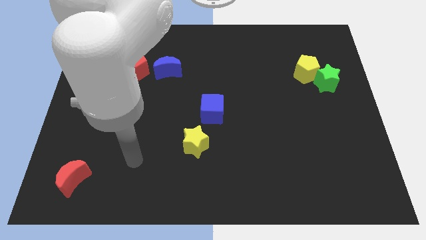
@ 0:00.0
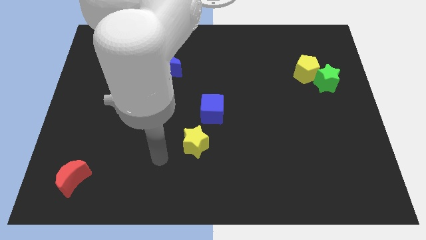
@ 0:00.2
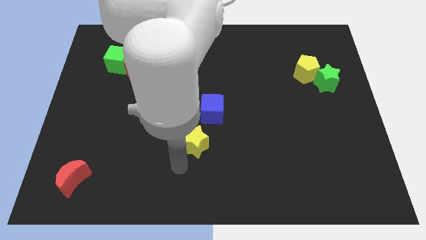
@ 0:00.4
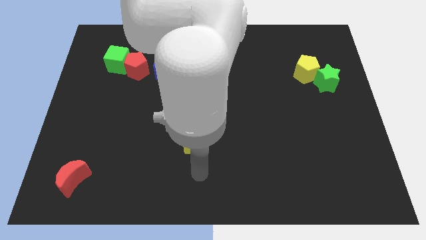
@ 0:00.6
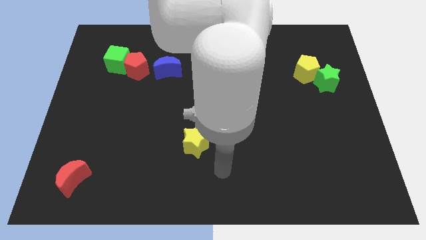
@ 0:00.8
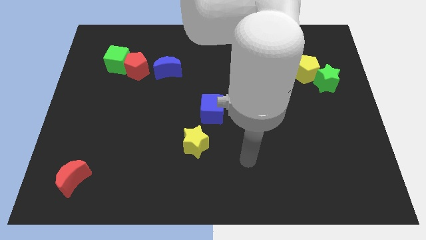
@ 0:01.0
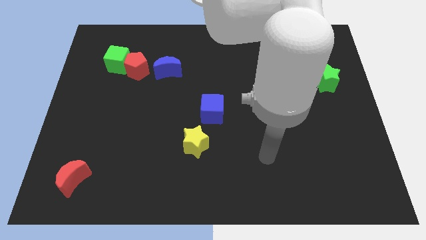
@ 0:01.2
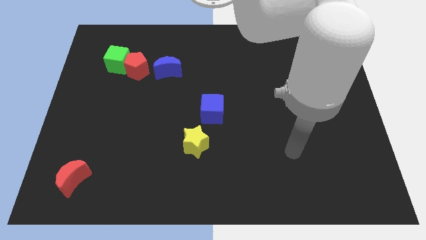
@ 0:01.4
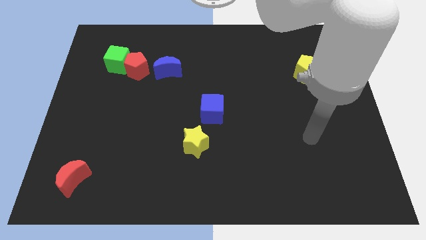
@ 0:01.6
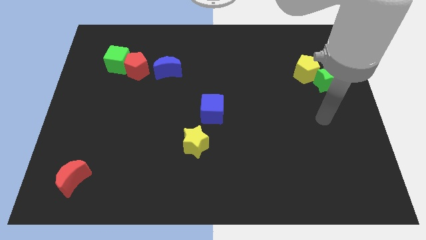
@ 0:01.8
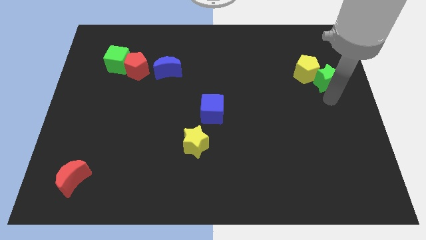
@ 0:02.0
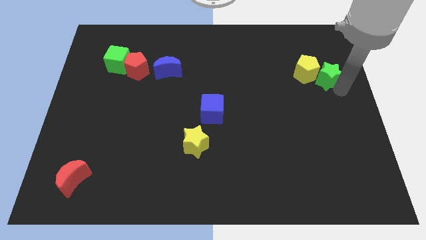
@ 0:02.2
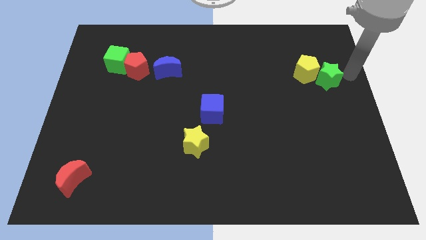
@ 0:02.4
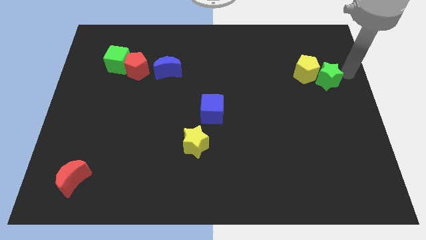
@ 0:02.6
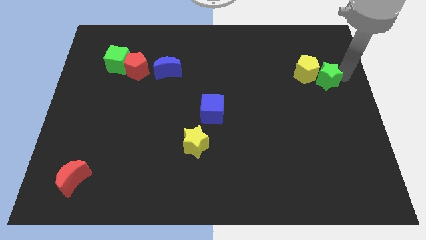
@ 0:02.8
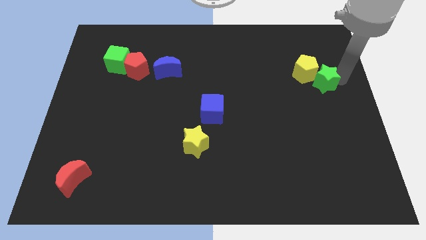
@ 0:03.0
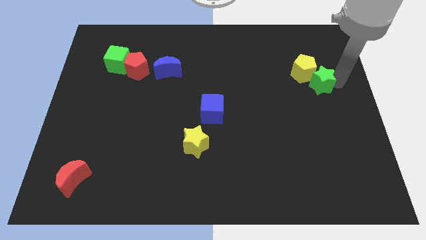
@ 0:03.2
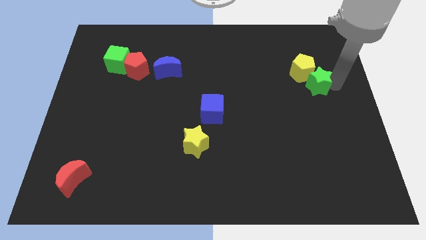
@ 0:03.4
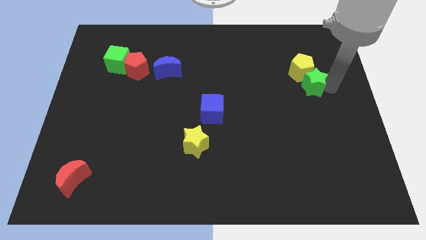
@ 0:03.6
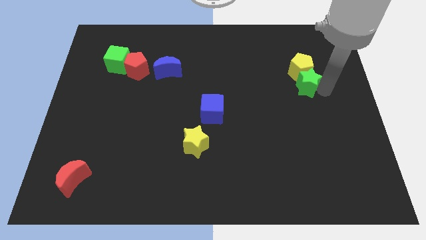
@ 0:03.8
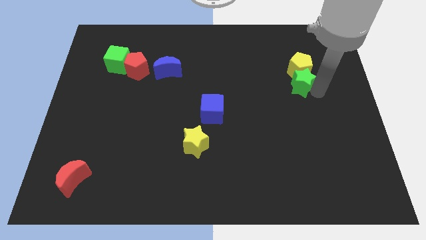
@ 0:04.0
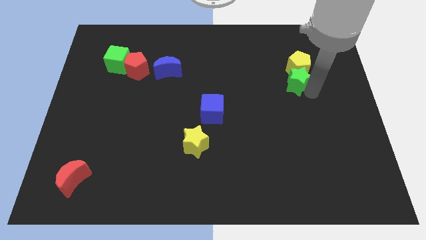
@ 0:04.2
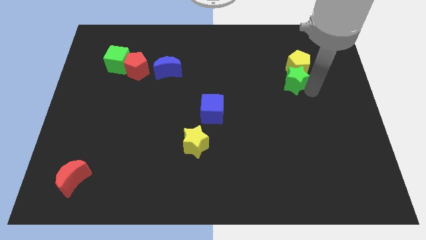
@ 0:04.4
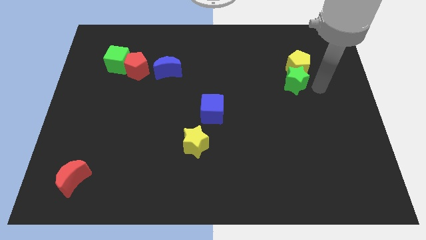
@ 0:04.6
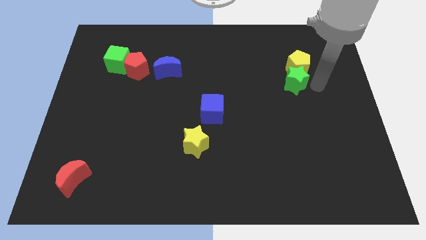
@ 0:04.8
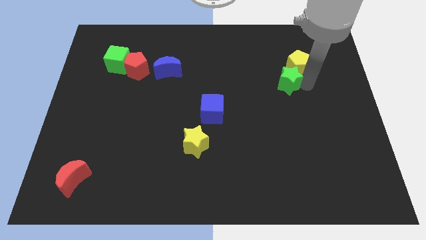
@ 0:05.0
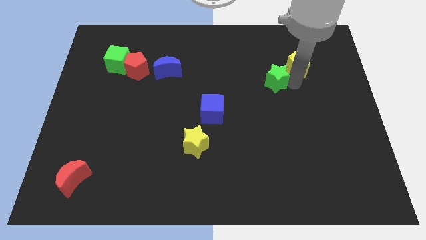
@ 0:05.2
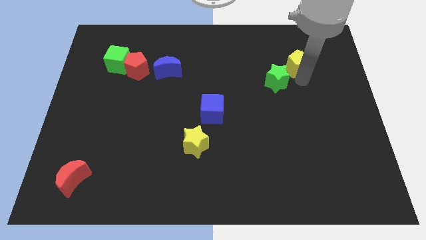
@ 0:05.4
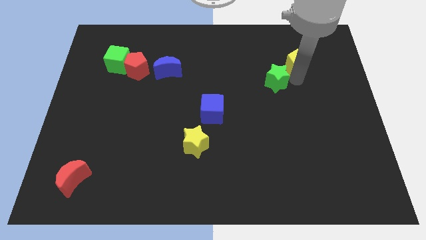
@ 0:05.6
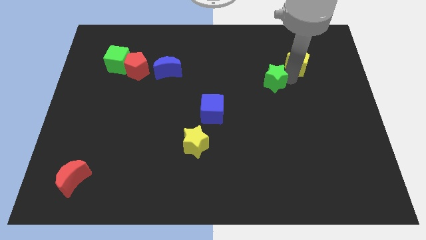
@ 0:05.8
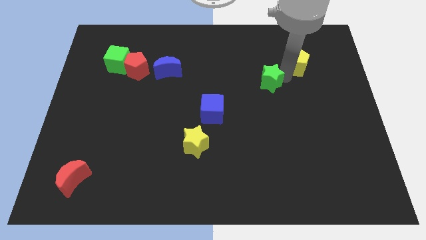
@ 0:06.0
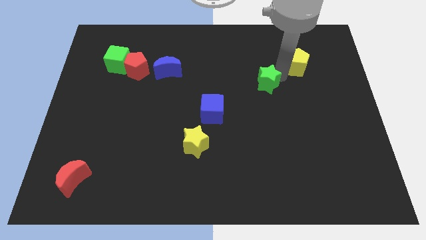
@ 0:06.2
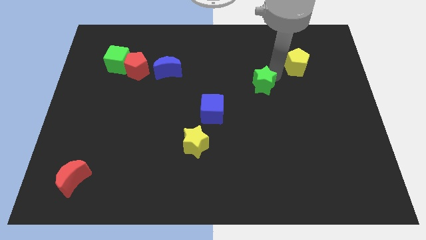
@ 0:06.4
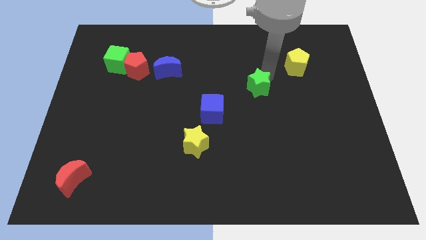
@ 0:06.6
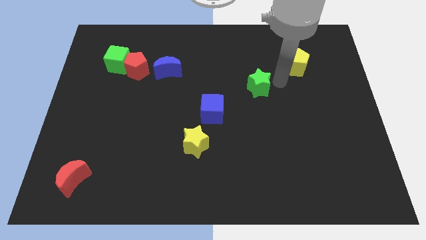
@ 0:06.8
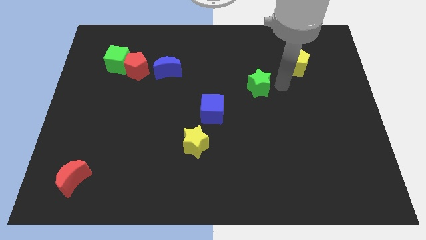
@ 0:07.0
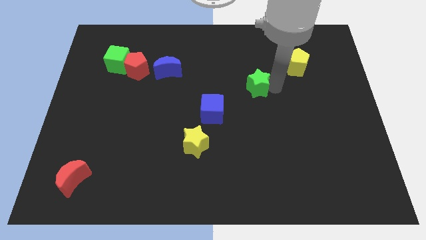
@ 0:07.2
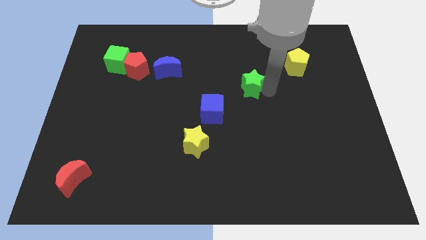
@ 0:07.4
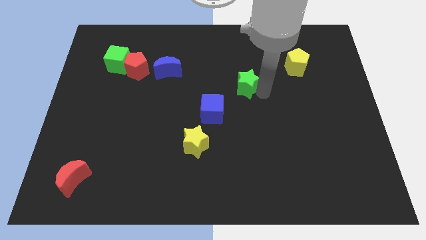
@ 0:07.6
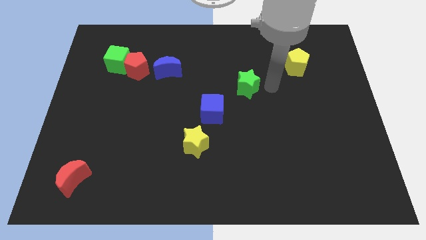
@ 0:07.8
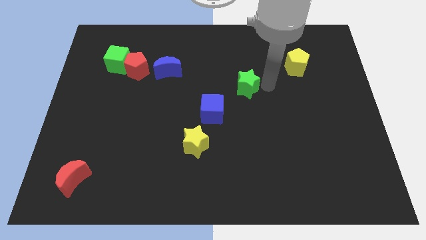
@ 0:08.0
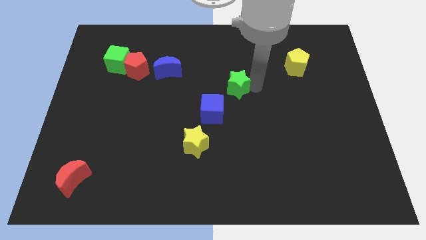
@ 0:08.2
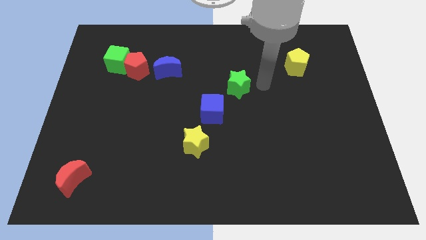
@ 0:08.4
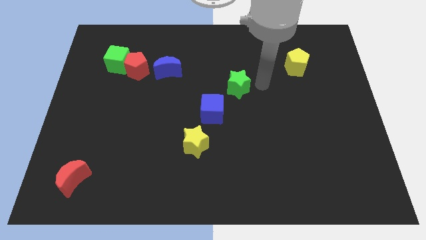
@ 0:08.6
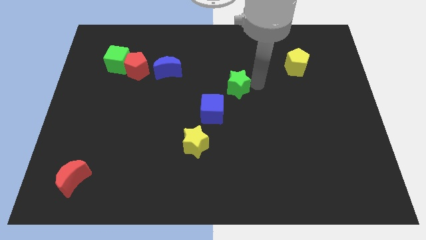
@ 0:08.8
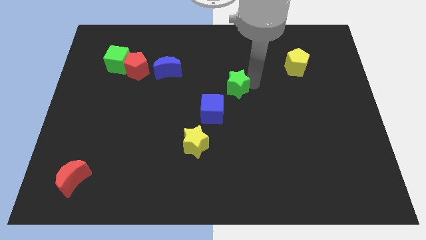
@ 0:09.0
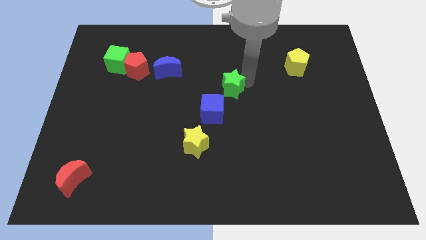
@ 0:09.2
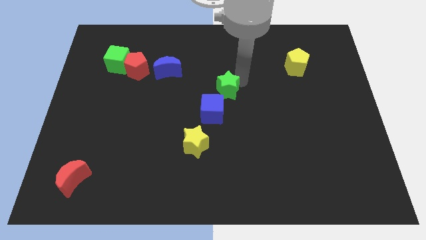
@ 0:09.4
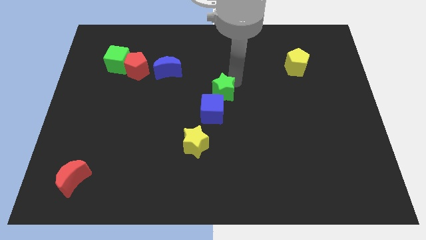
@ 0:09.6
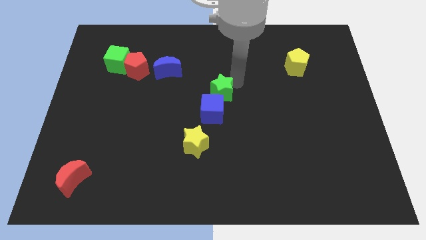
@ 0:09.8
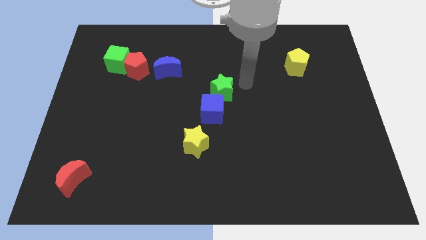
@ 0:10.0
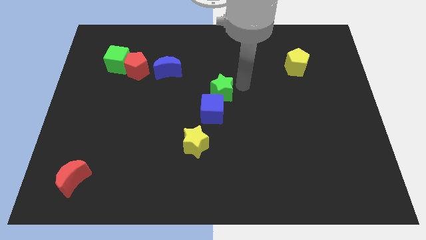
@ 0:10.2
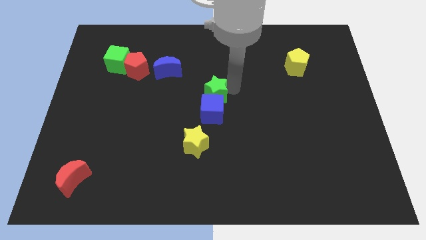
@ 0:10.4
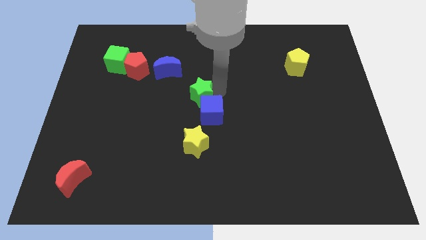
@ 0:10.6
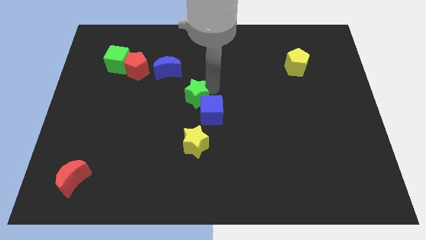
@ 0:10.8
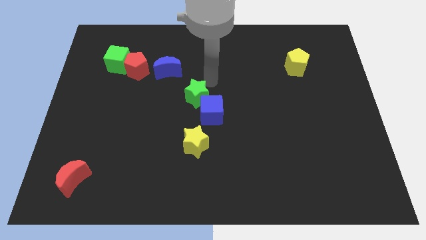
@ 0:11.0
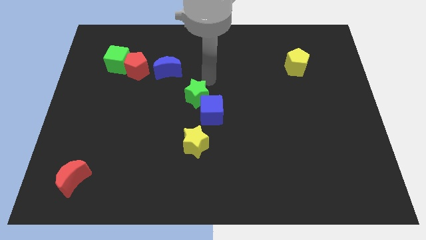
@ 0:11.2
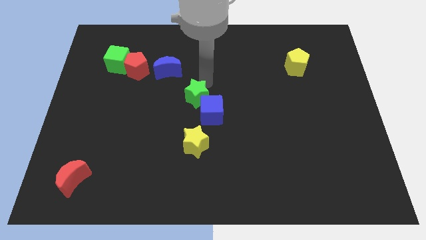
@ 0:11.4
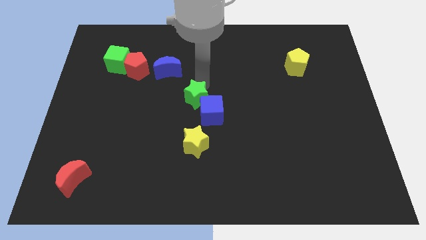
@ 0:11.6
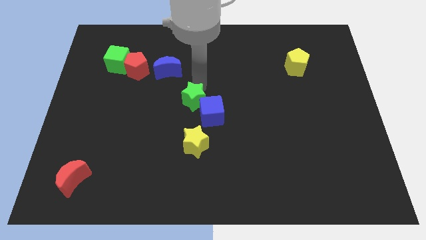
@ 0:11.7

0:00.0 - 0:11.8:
slide the green star to the left of the blue cube

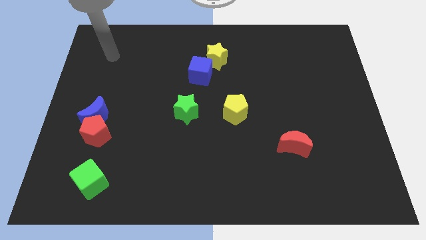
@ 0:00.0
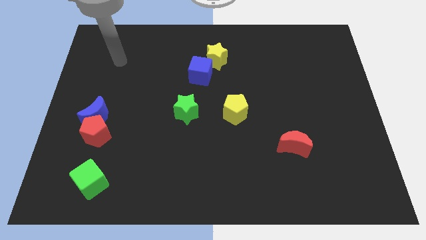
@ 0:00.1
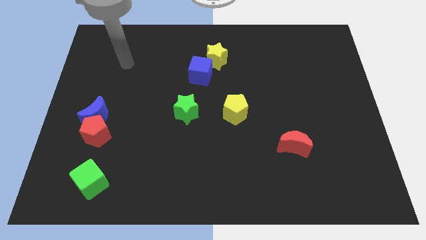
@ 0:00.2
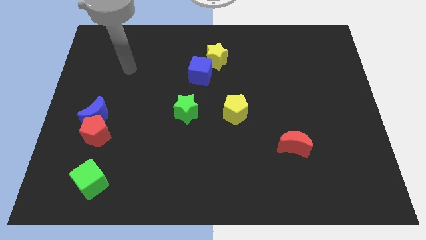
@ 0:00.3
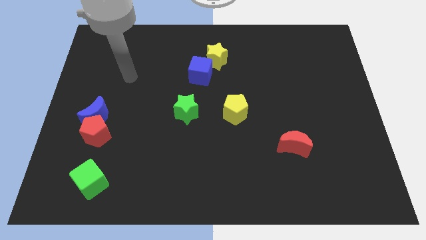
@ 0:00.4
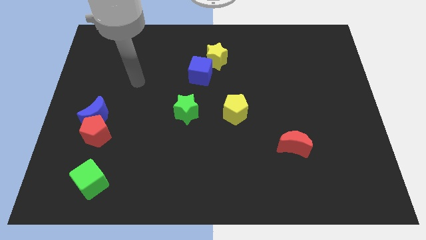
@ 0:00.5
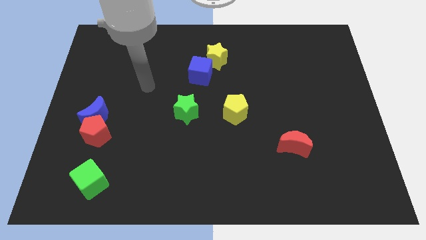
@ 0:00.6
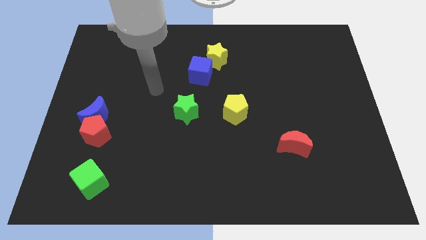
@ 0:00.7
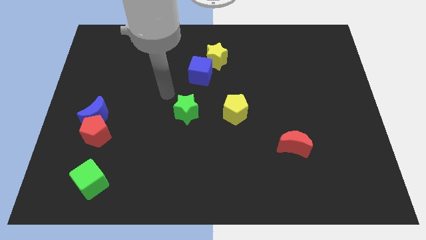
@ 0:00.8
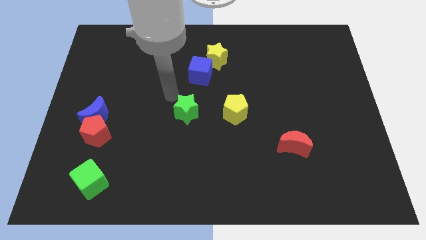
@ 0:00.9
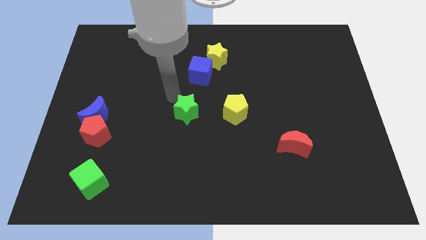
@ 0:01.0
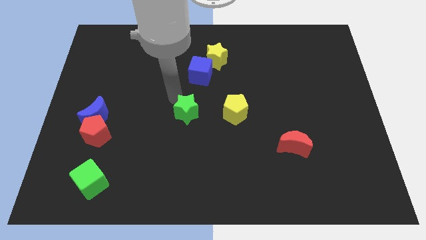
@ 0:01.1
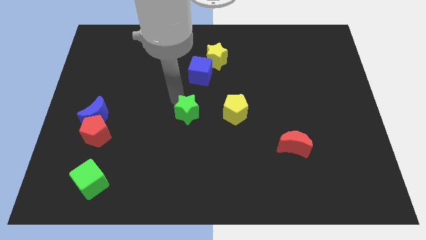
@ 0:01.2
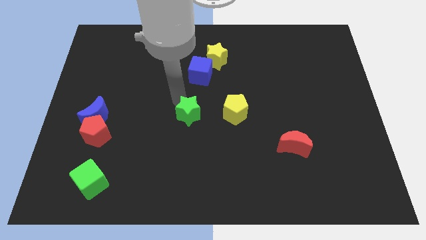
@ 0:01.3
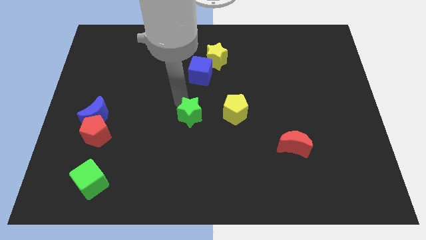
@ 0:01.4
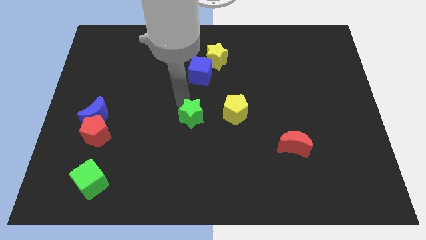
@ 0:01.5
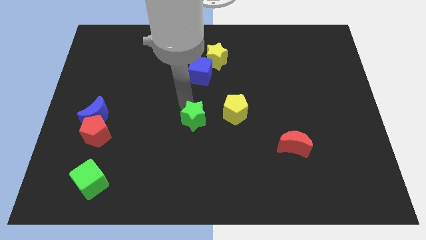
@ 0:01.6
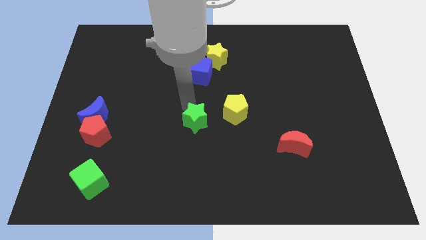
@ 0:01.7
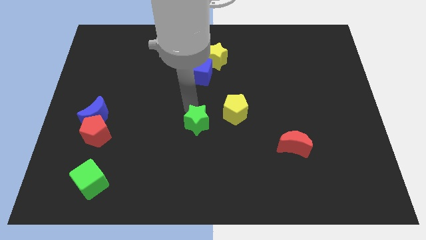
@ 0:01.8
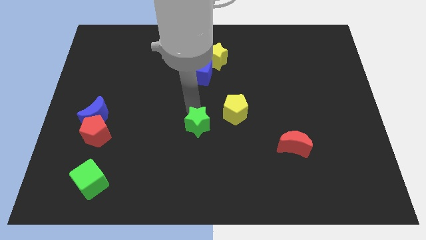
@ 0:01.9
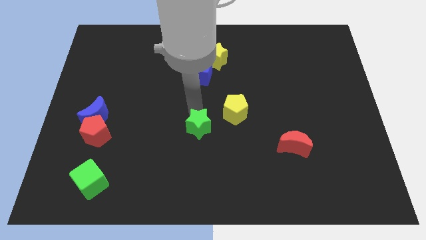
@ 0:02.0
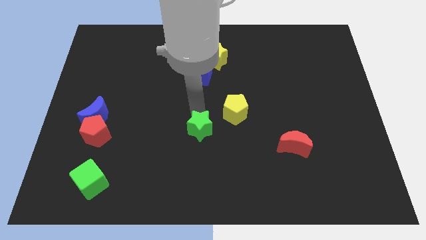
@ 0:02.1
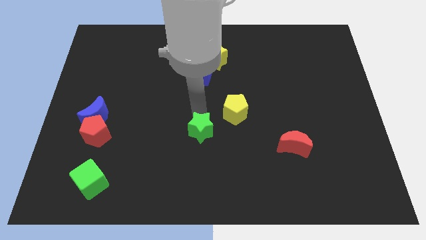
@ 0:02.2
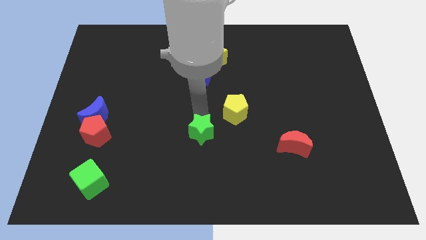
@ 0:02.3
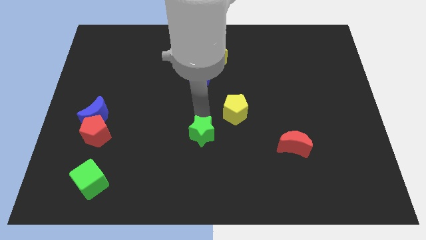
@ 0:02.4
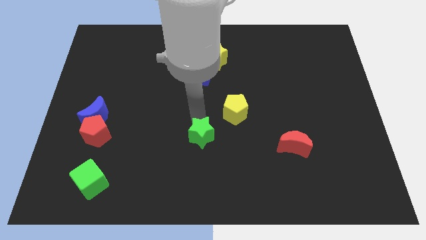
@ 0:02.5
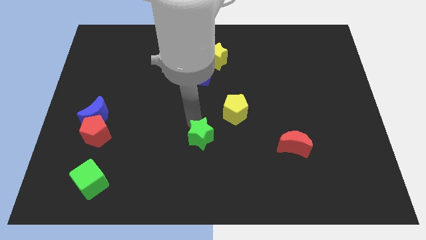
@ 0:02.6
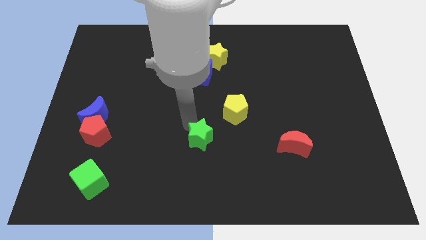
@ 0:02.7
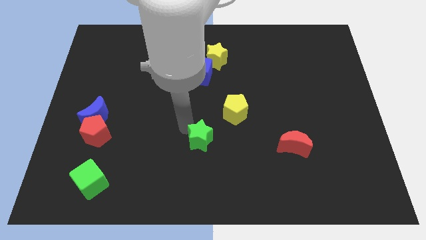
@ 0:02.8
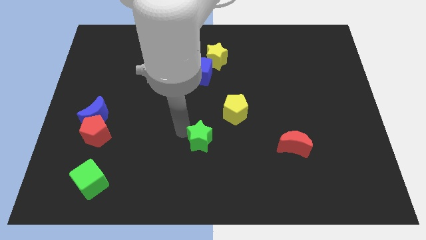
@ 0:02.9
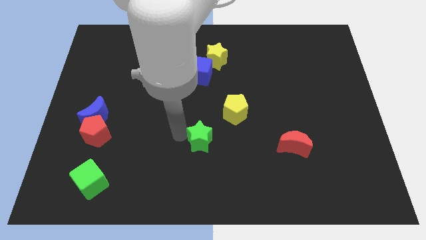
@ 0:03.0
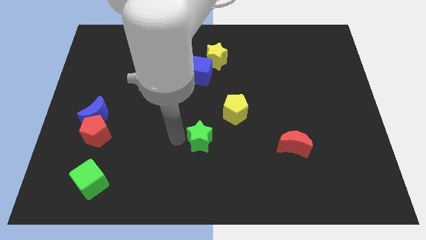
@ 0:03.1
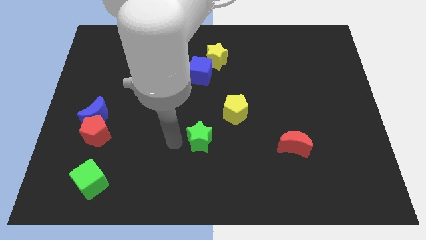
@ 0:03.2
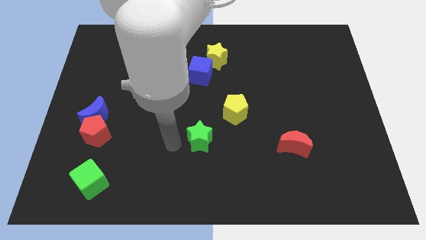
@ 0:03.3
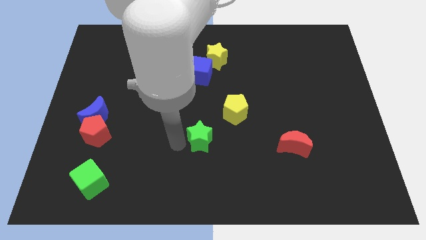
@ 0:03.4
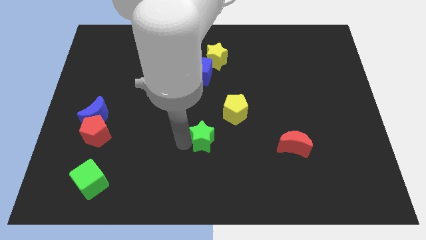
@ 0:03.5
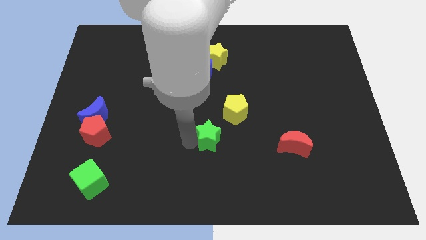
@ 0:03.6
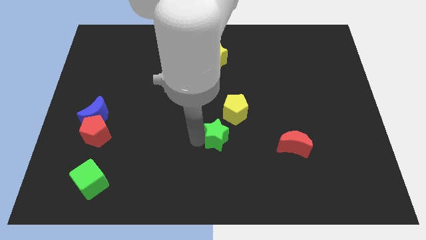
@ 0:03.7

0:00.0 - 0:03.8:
move the green star to the bottom side of the yellow pentagon
